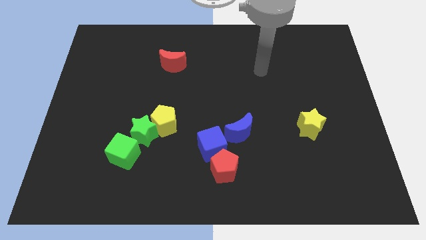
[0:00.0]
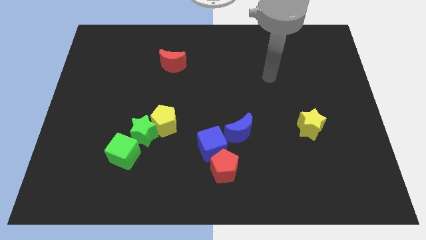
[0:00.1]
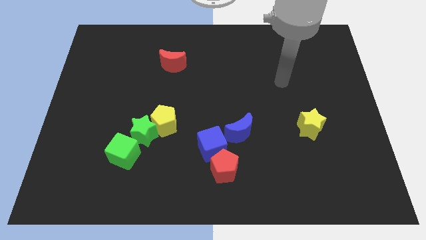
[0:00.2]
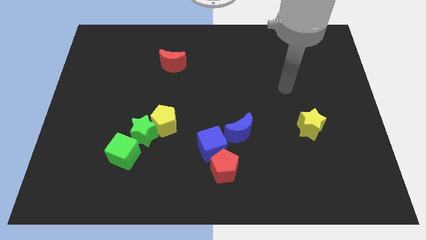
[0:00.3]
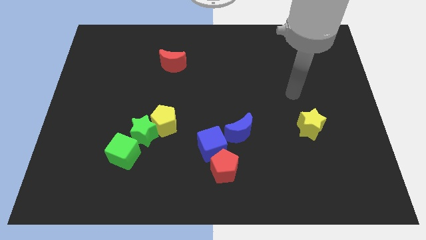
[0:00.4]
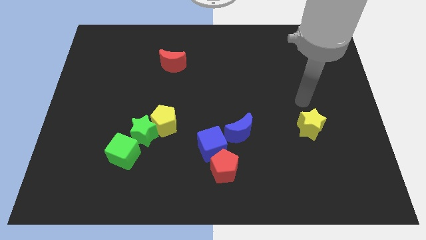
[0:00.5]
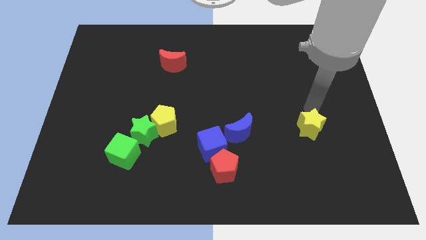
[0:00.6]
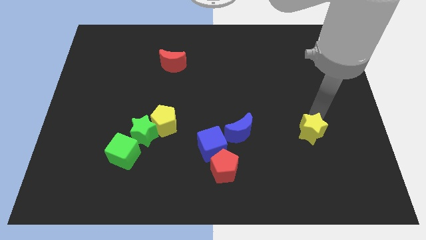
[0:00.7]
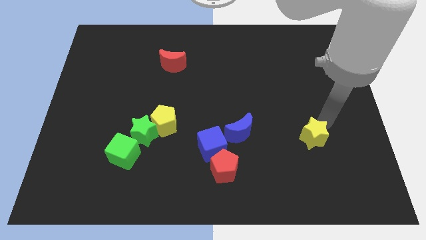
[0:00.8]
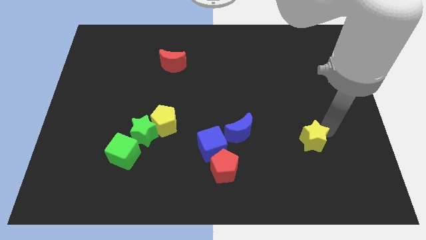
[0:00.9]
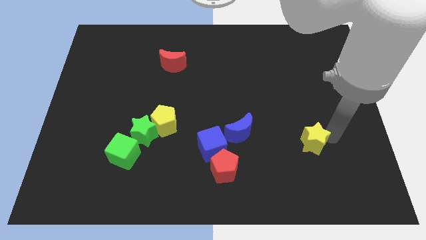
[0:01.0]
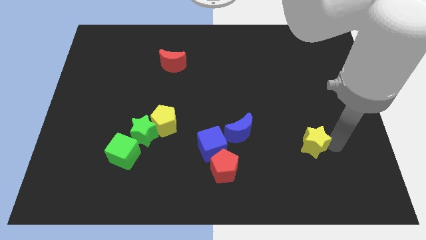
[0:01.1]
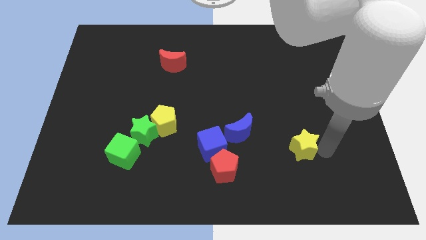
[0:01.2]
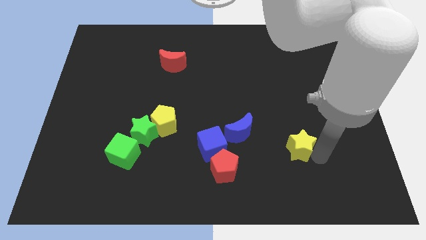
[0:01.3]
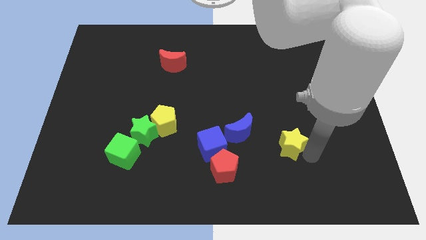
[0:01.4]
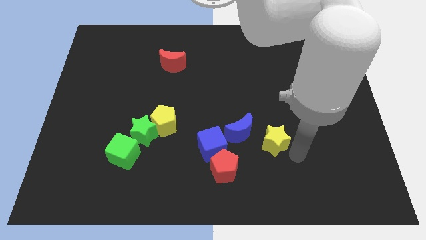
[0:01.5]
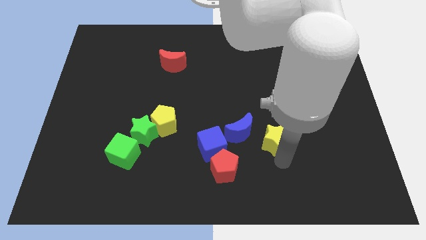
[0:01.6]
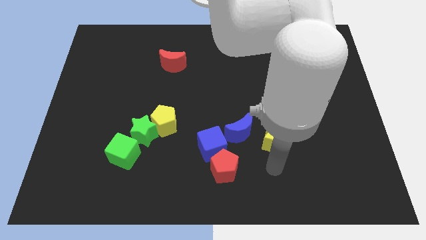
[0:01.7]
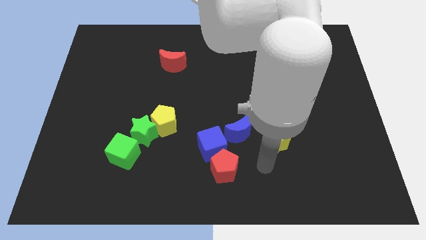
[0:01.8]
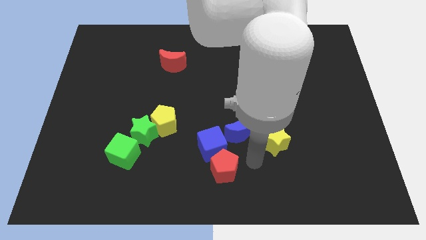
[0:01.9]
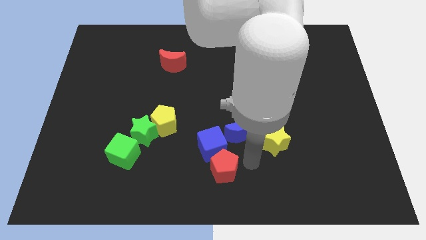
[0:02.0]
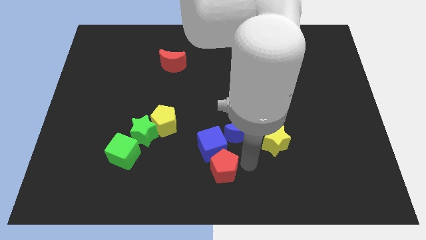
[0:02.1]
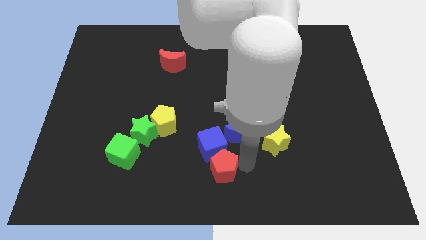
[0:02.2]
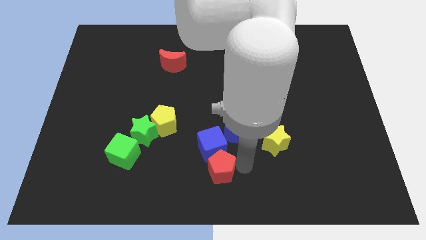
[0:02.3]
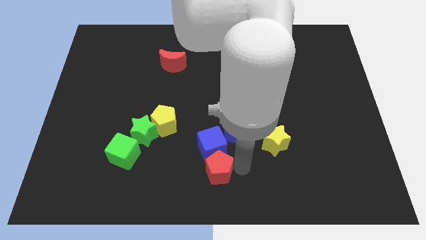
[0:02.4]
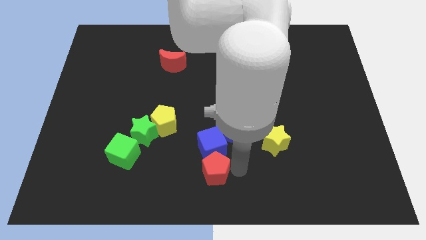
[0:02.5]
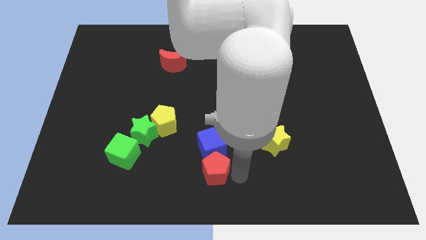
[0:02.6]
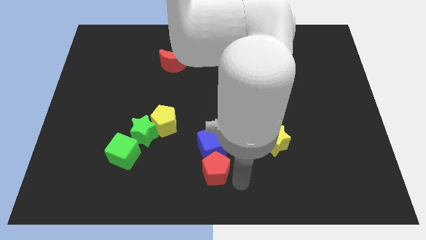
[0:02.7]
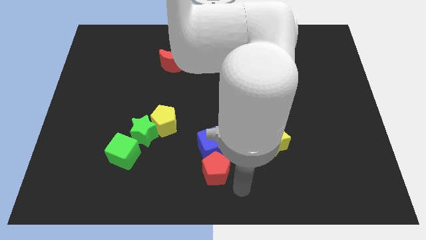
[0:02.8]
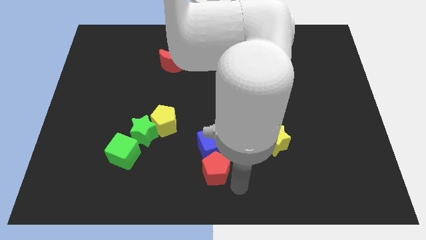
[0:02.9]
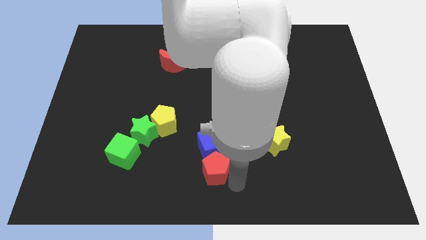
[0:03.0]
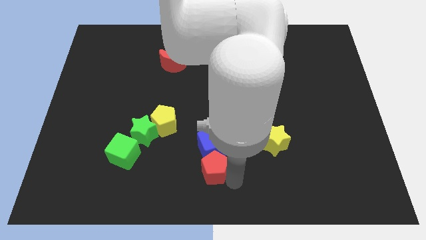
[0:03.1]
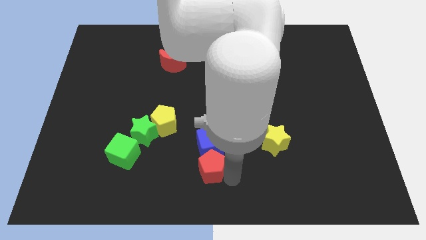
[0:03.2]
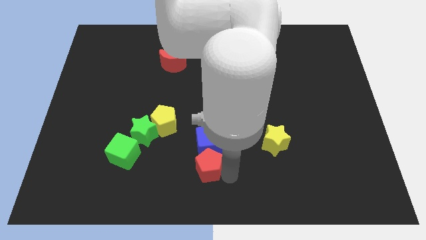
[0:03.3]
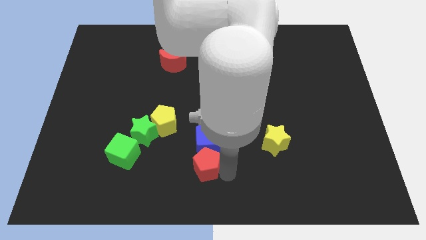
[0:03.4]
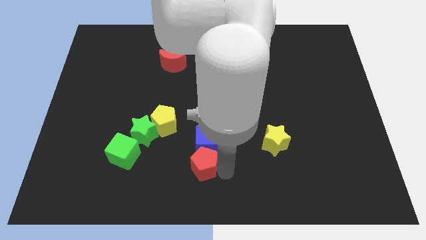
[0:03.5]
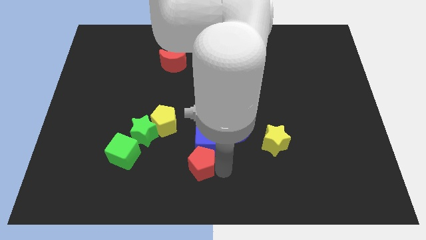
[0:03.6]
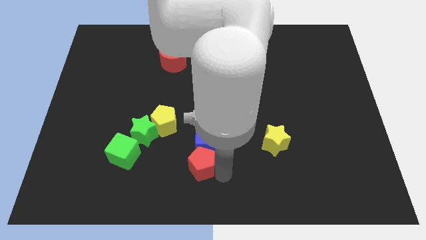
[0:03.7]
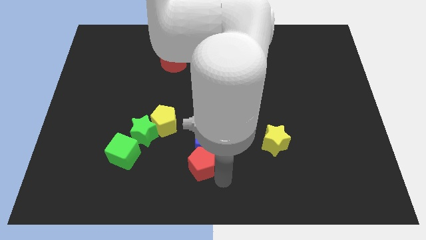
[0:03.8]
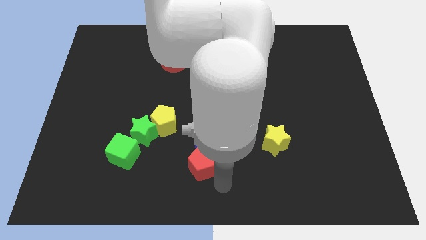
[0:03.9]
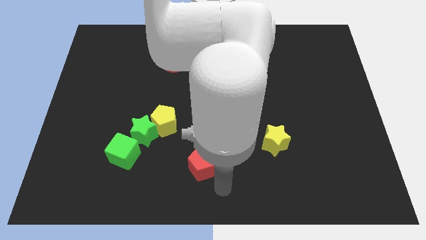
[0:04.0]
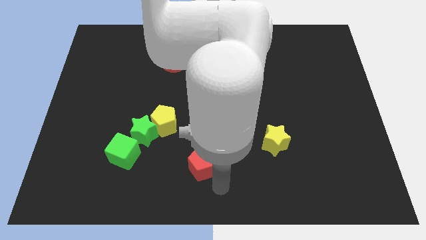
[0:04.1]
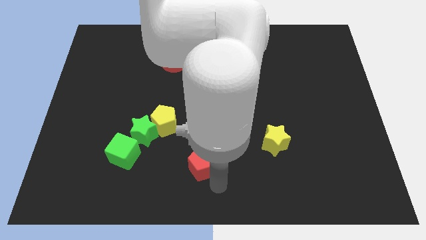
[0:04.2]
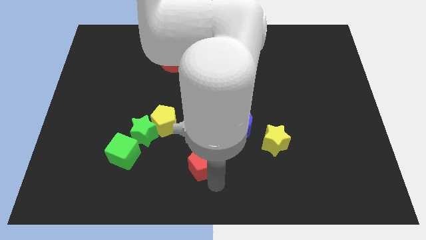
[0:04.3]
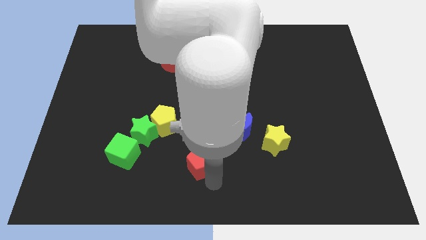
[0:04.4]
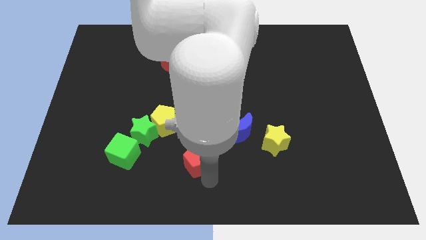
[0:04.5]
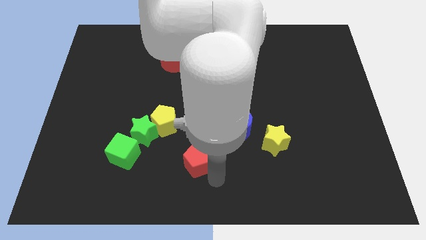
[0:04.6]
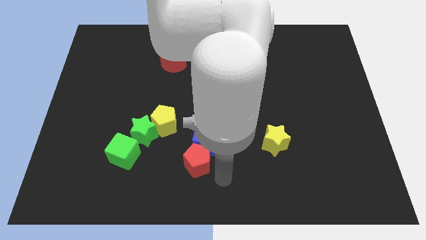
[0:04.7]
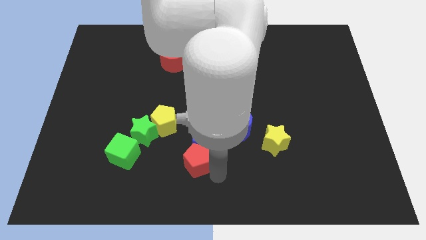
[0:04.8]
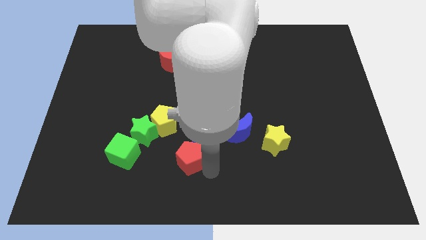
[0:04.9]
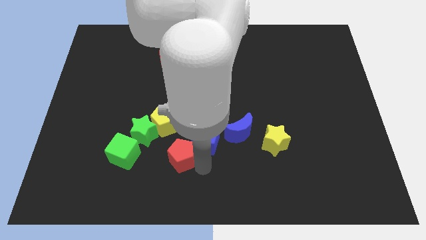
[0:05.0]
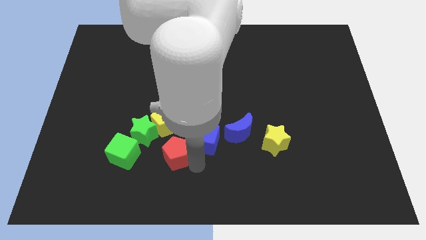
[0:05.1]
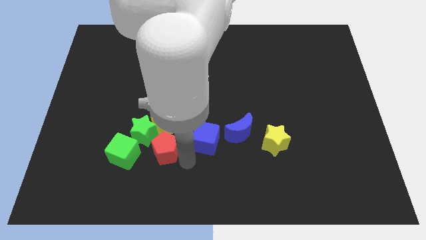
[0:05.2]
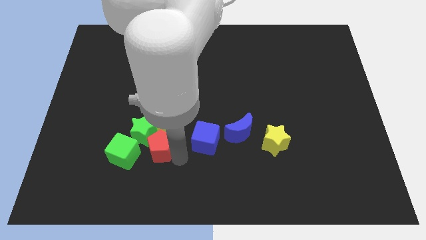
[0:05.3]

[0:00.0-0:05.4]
move the red pentagon to the green star

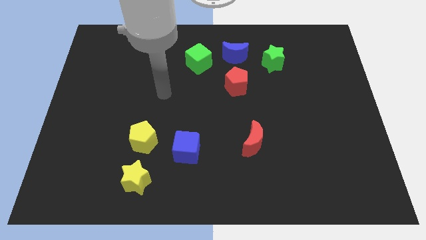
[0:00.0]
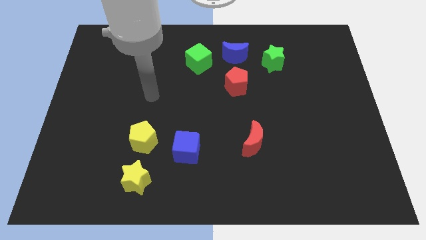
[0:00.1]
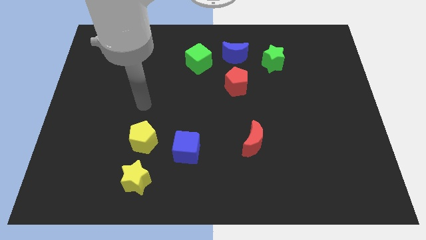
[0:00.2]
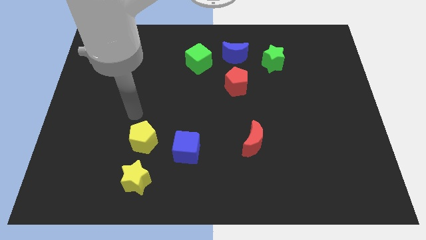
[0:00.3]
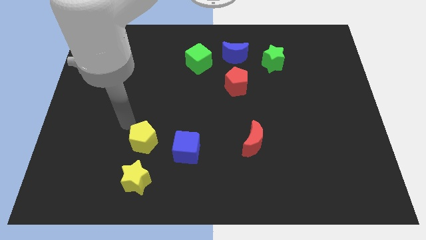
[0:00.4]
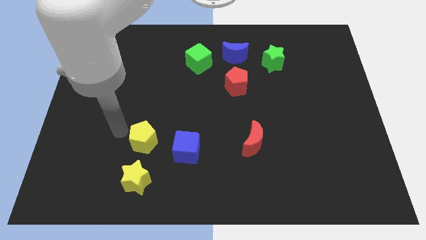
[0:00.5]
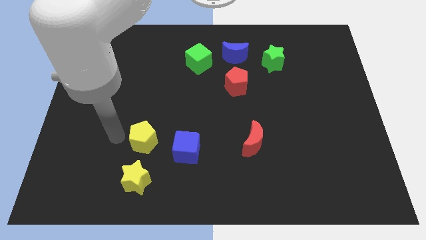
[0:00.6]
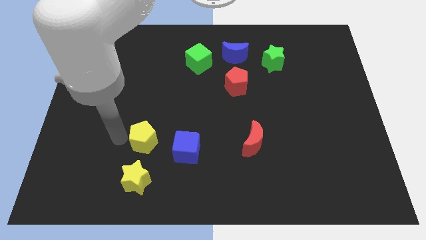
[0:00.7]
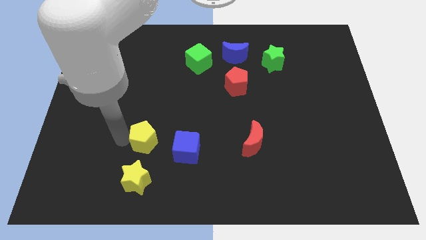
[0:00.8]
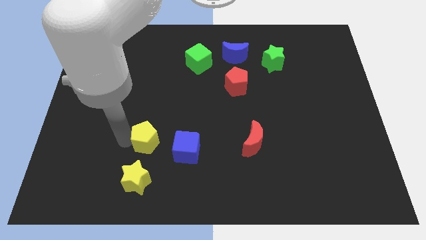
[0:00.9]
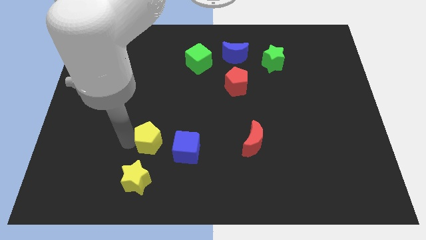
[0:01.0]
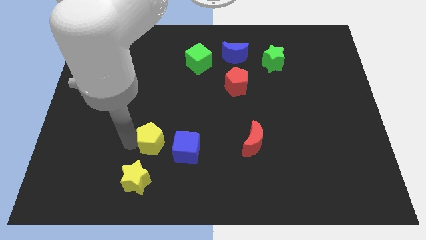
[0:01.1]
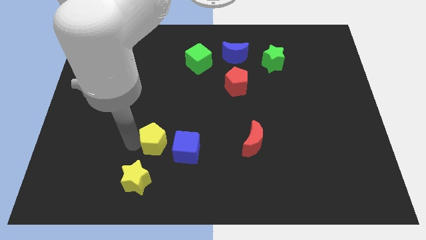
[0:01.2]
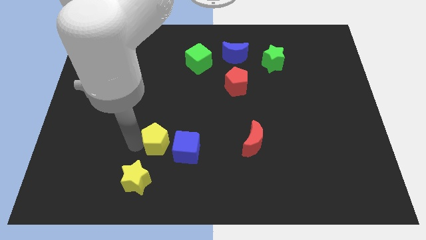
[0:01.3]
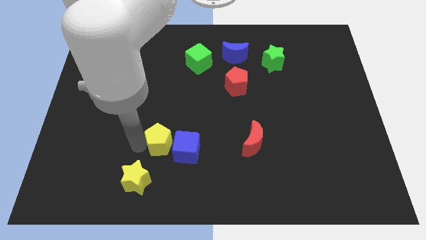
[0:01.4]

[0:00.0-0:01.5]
slide the yellow pentagon next to the blue cube

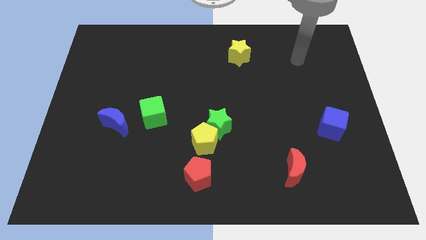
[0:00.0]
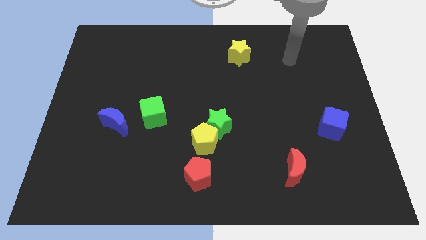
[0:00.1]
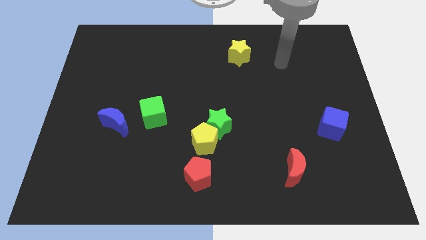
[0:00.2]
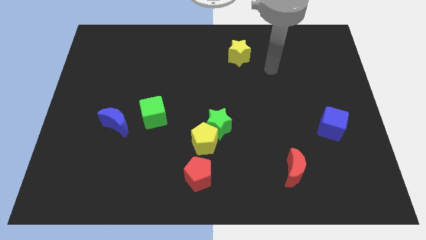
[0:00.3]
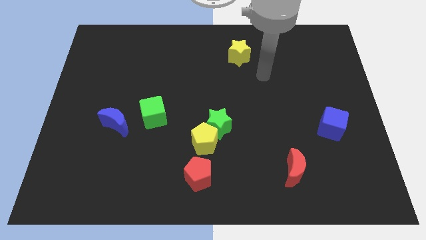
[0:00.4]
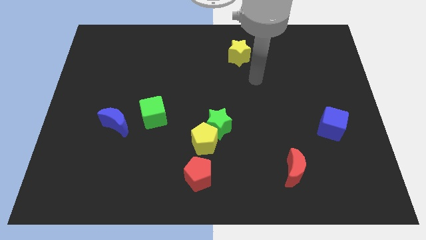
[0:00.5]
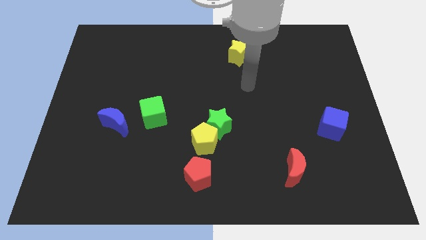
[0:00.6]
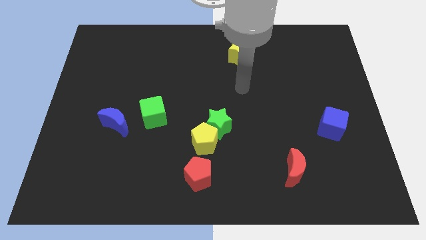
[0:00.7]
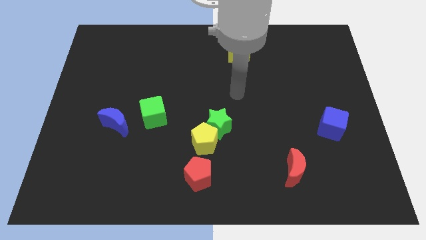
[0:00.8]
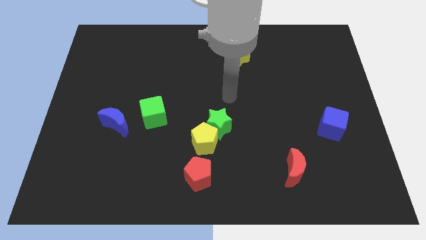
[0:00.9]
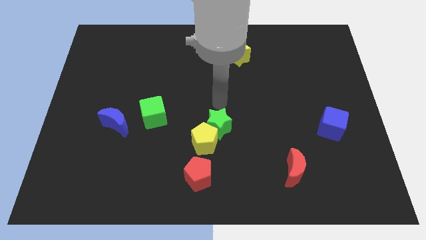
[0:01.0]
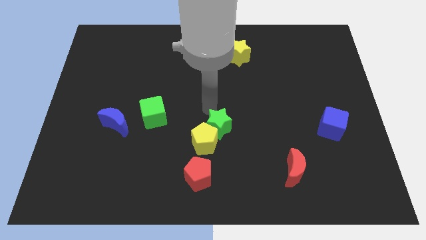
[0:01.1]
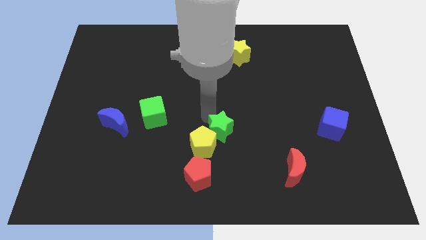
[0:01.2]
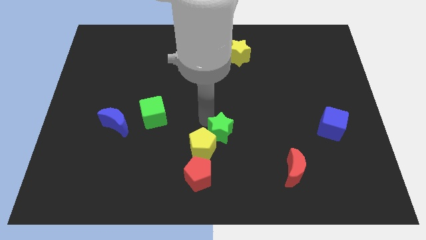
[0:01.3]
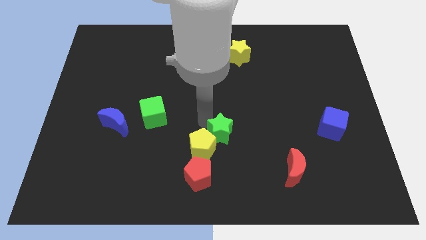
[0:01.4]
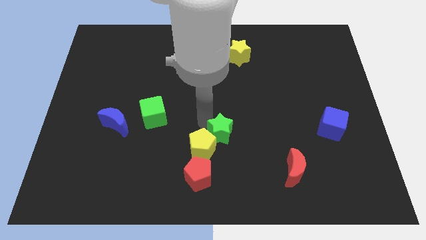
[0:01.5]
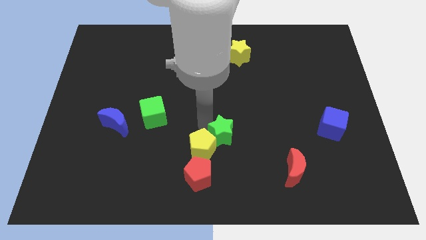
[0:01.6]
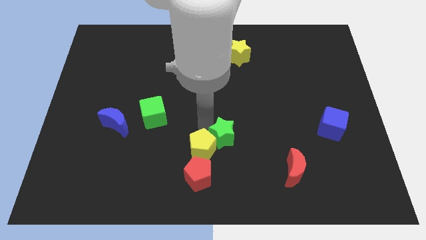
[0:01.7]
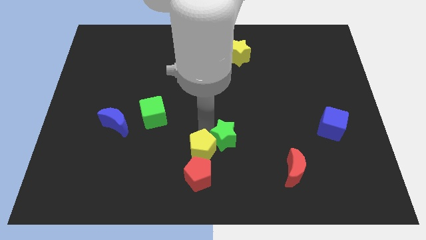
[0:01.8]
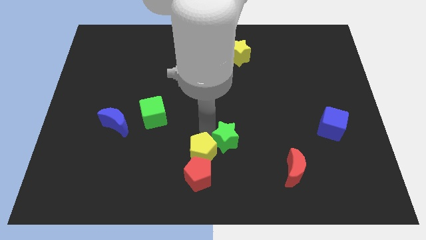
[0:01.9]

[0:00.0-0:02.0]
move the yellow pentagon to the red pentagon
